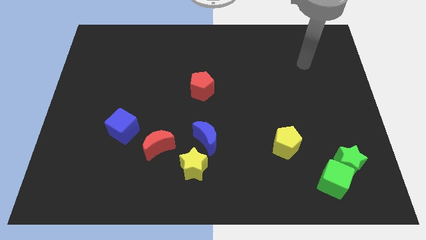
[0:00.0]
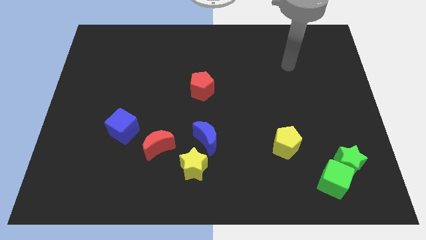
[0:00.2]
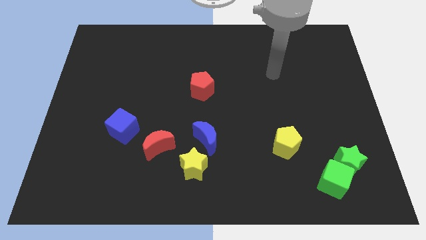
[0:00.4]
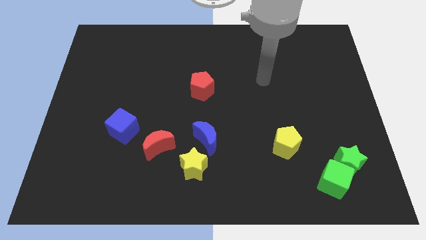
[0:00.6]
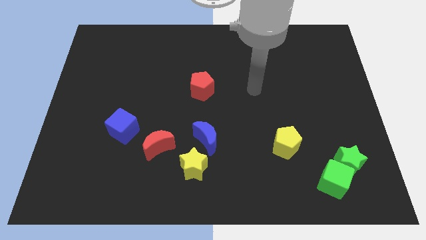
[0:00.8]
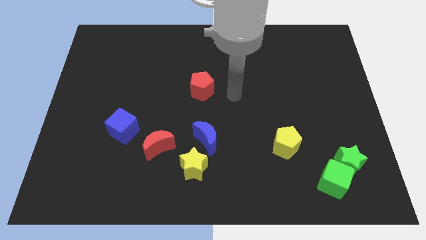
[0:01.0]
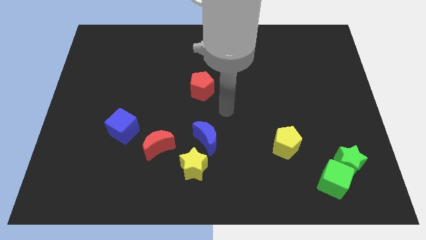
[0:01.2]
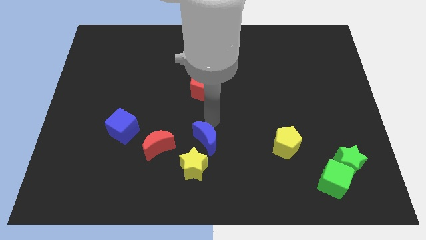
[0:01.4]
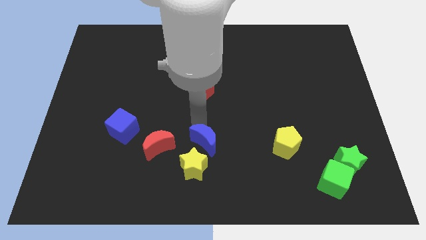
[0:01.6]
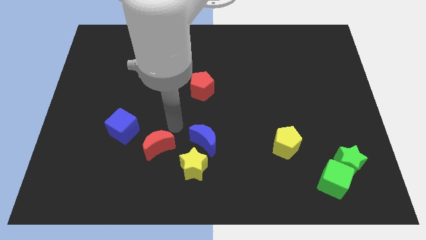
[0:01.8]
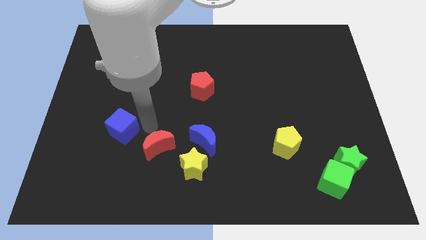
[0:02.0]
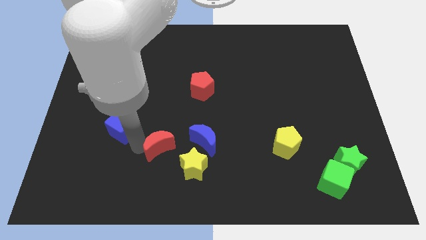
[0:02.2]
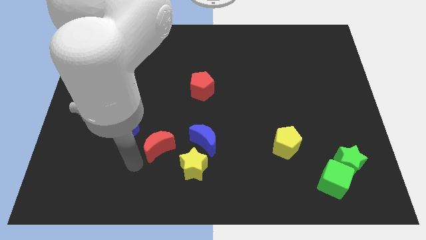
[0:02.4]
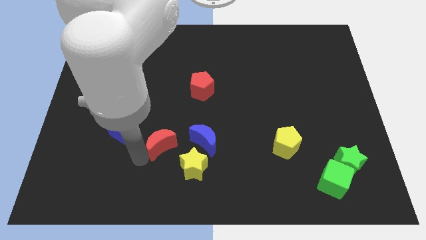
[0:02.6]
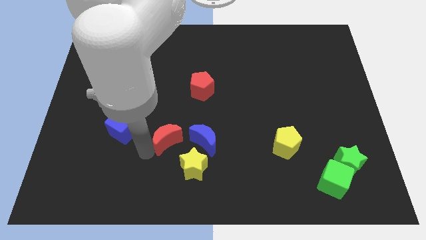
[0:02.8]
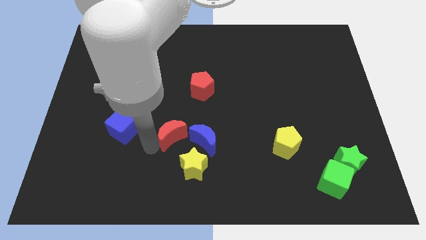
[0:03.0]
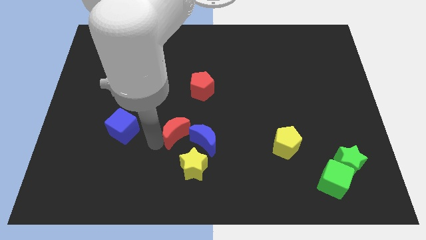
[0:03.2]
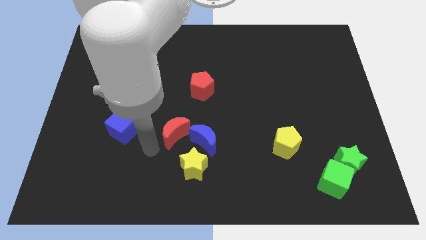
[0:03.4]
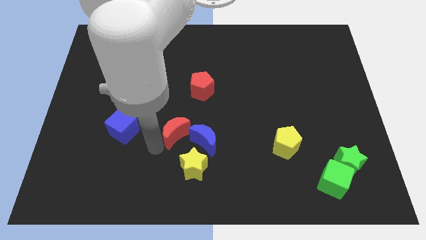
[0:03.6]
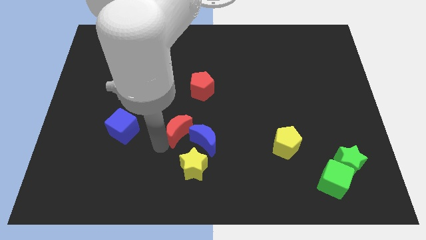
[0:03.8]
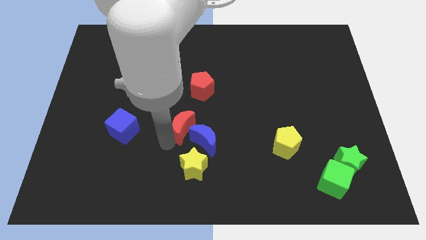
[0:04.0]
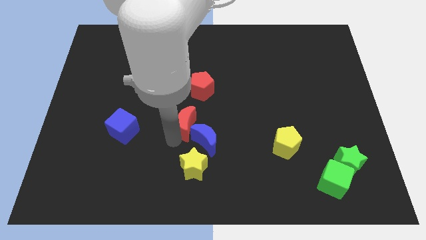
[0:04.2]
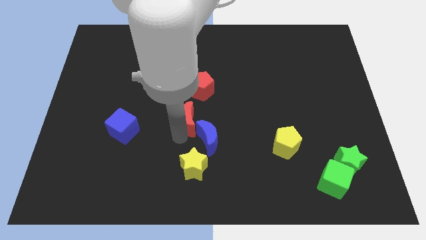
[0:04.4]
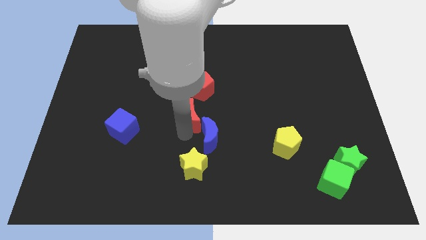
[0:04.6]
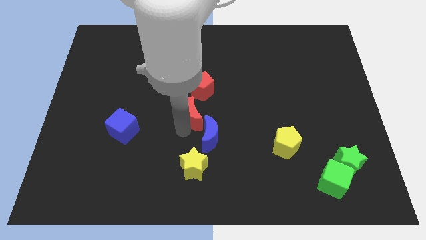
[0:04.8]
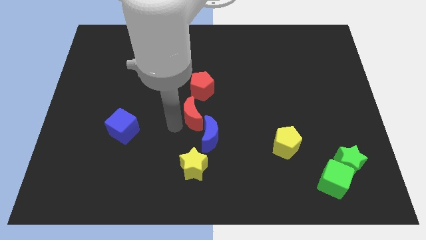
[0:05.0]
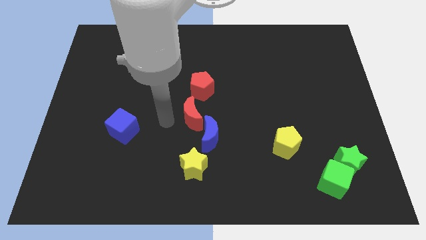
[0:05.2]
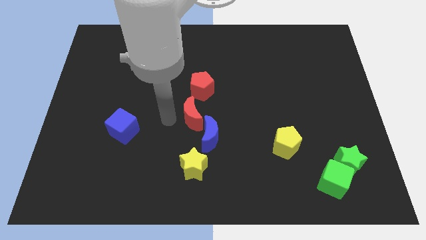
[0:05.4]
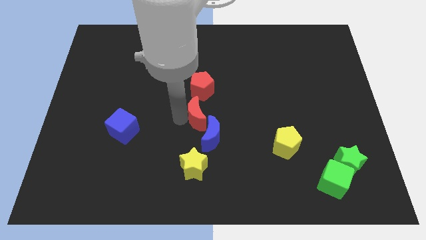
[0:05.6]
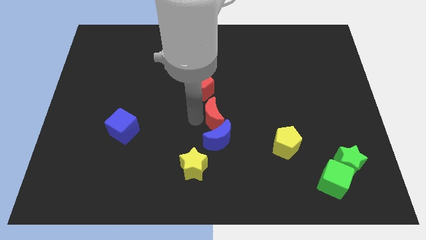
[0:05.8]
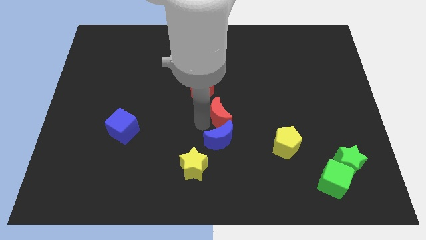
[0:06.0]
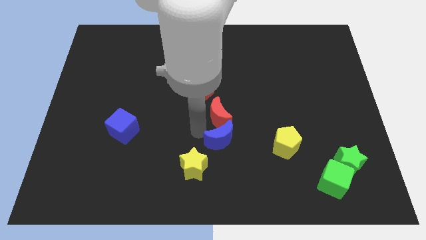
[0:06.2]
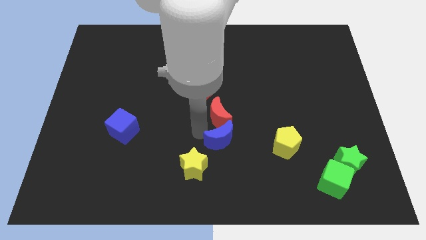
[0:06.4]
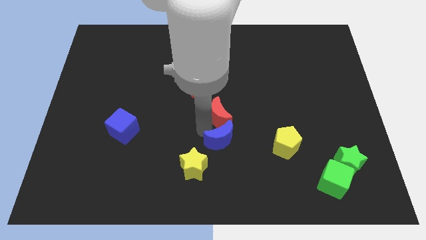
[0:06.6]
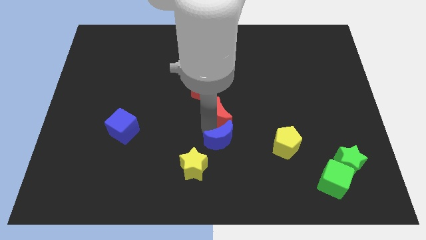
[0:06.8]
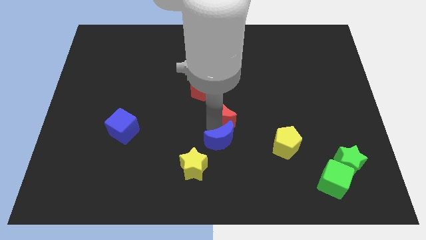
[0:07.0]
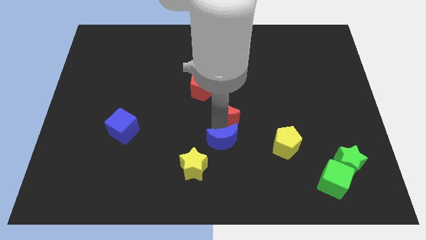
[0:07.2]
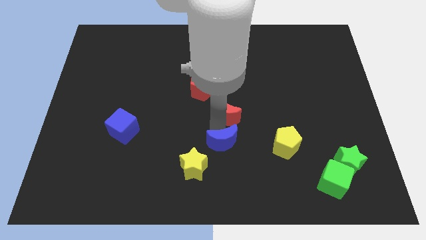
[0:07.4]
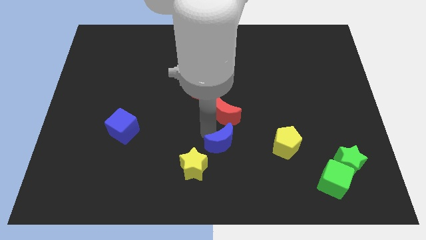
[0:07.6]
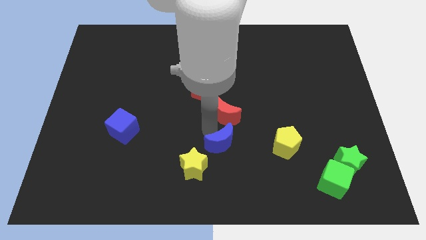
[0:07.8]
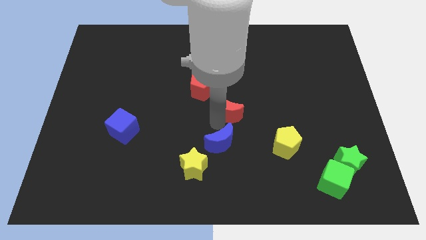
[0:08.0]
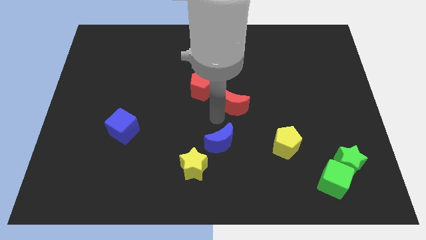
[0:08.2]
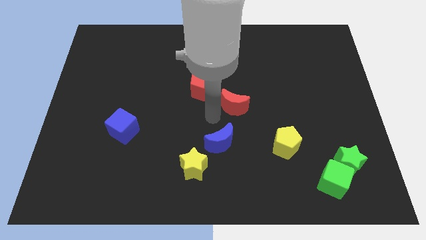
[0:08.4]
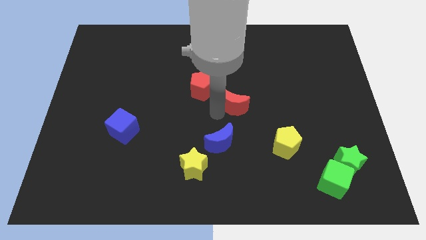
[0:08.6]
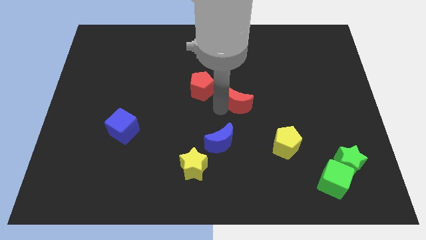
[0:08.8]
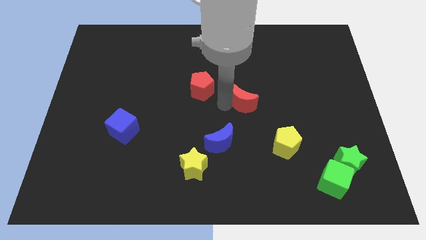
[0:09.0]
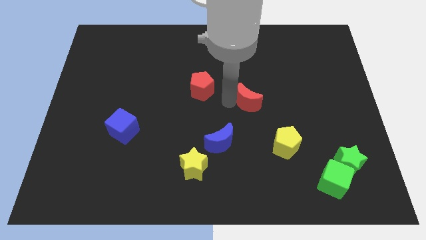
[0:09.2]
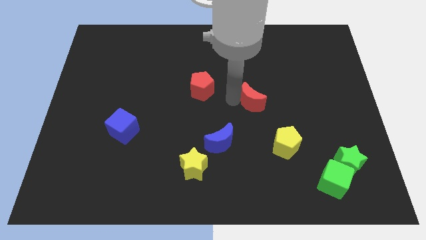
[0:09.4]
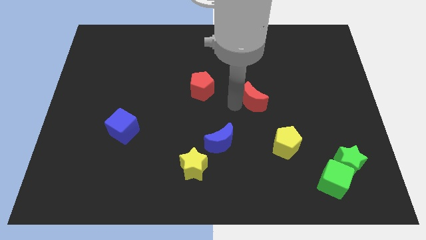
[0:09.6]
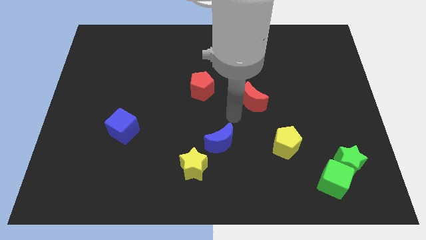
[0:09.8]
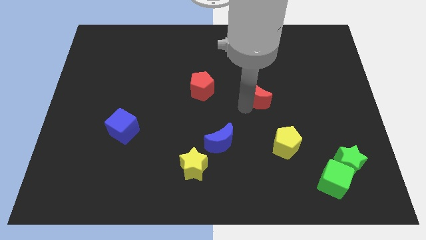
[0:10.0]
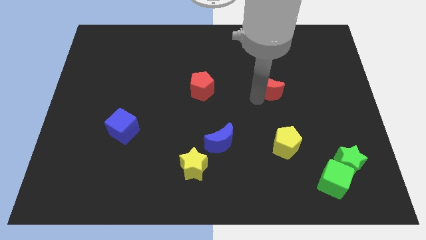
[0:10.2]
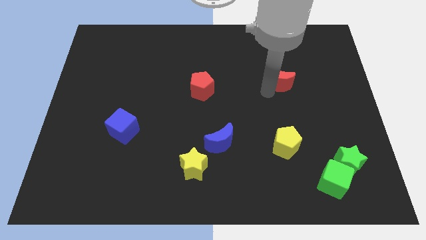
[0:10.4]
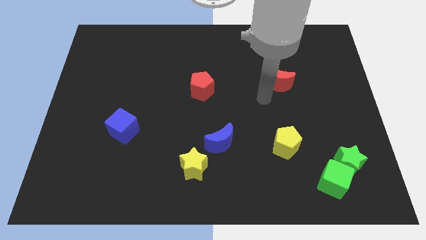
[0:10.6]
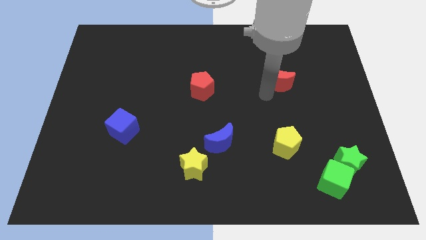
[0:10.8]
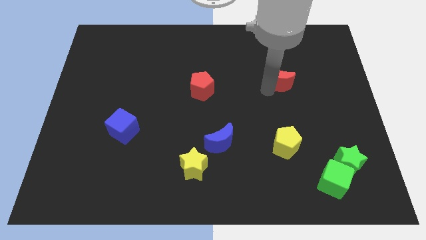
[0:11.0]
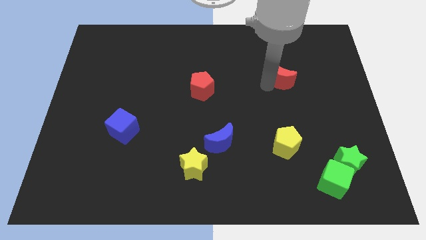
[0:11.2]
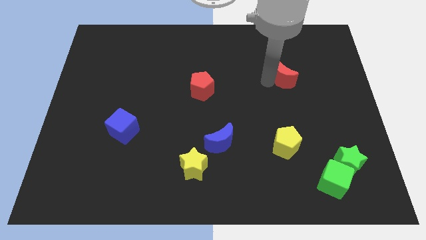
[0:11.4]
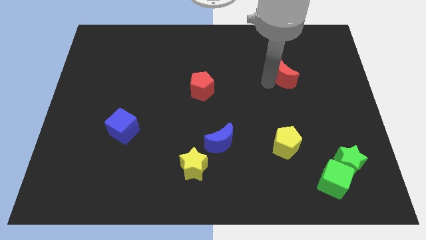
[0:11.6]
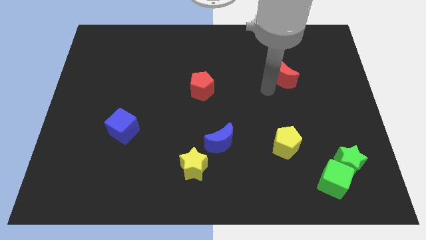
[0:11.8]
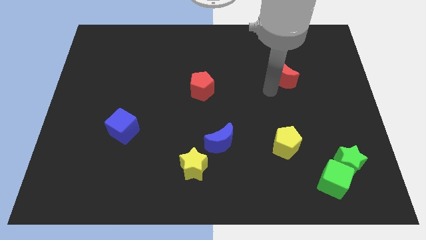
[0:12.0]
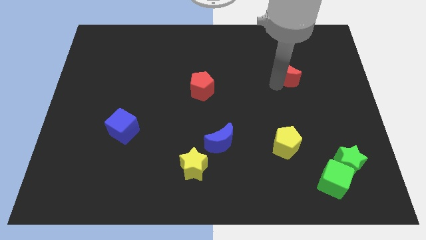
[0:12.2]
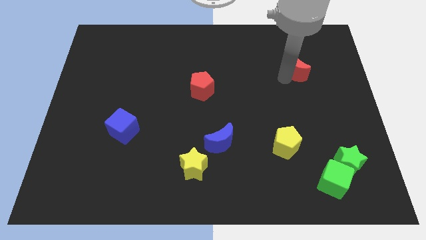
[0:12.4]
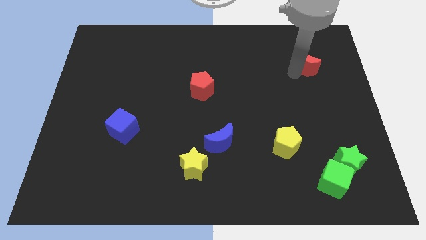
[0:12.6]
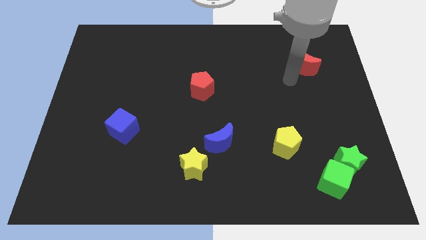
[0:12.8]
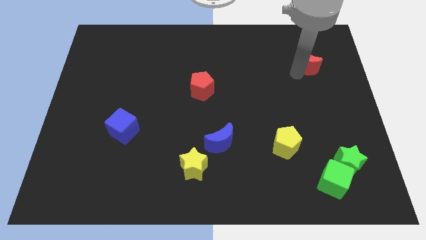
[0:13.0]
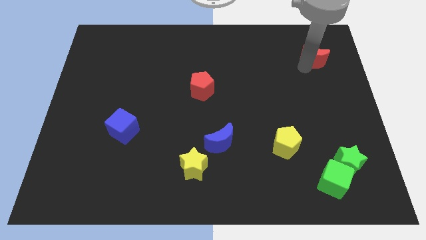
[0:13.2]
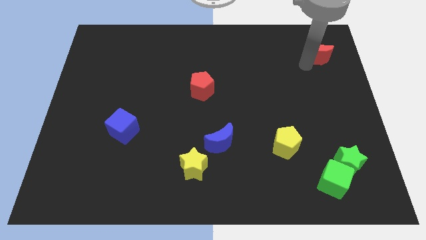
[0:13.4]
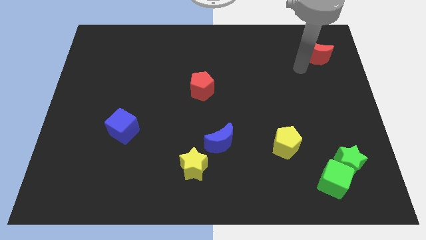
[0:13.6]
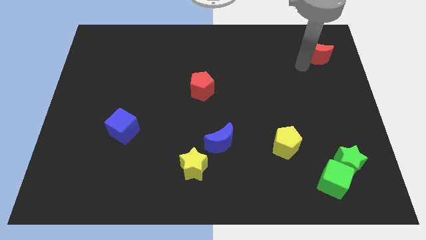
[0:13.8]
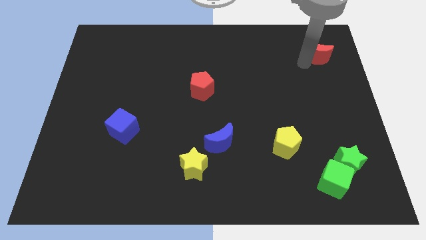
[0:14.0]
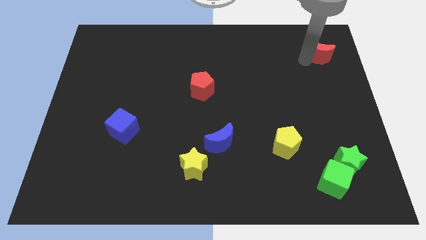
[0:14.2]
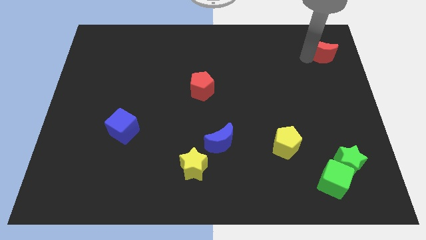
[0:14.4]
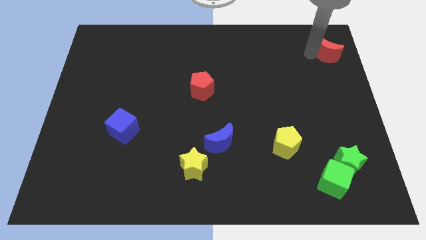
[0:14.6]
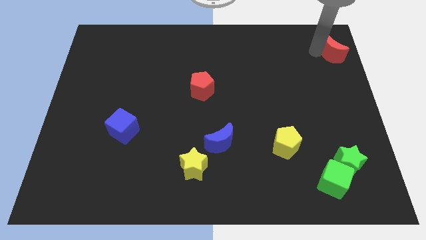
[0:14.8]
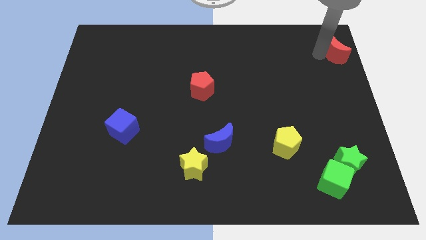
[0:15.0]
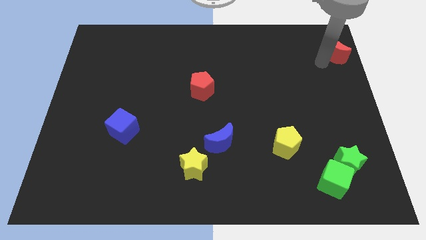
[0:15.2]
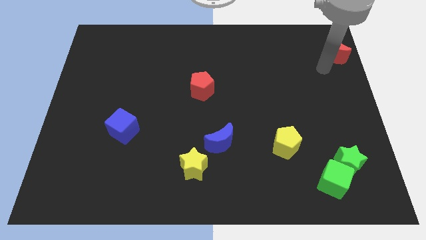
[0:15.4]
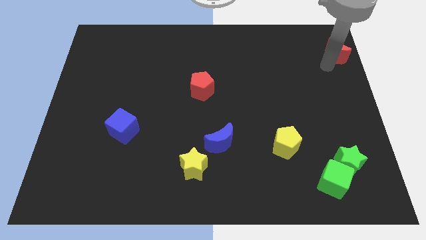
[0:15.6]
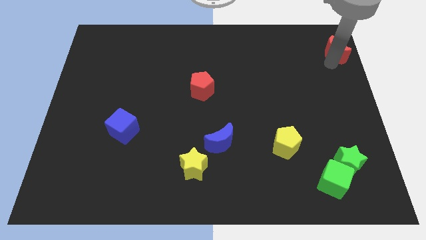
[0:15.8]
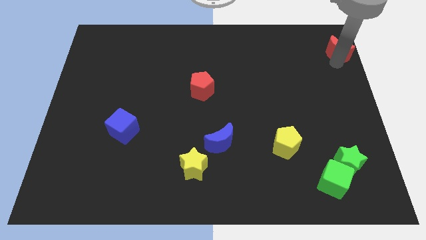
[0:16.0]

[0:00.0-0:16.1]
slide the red moon to the upper right corner
